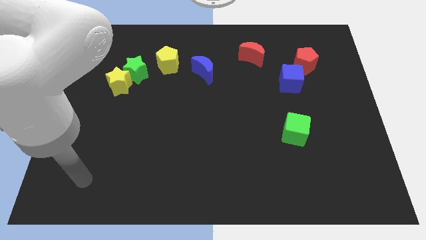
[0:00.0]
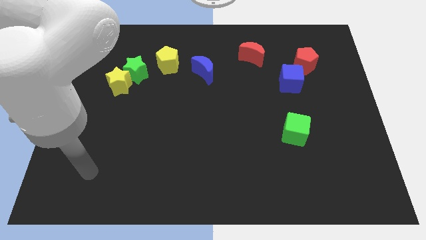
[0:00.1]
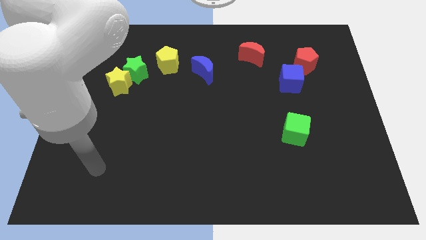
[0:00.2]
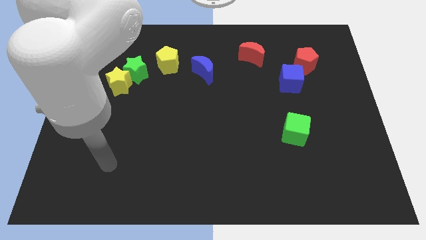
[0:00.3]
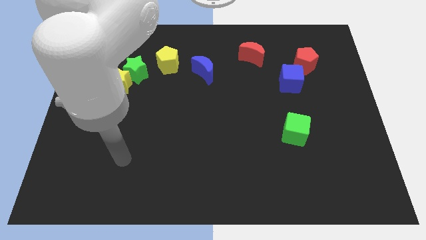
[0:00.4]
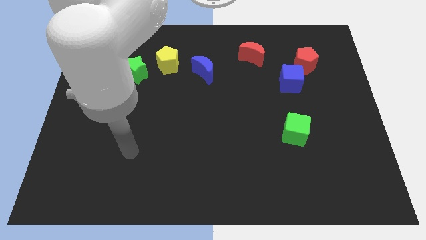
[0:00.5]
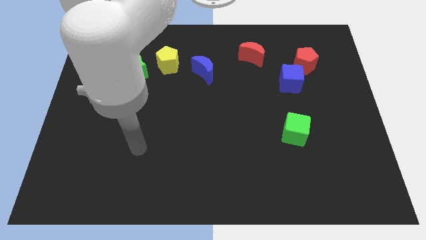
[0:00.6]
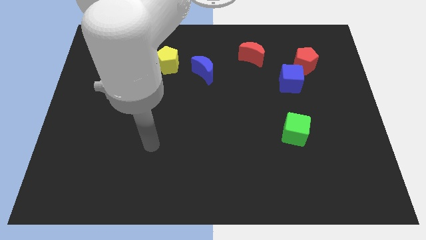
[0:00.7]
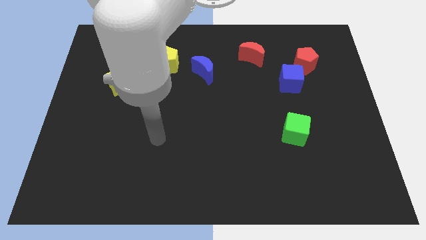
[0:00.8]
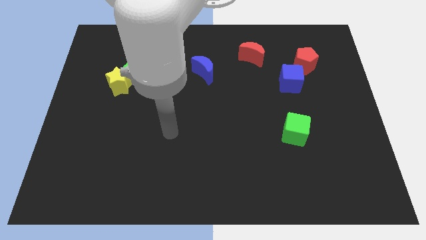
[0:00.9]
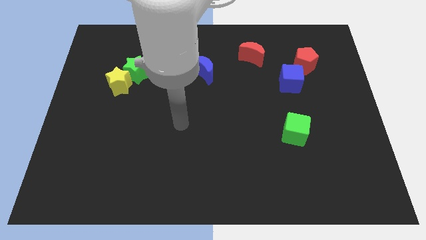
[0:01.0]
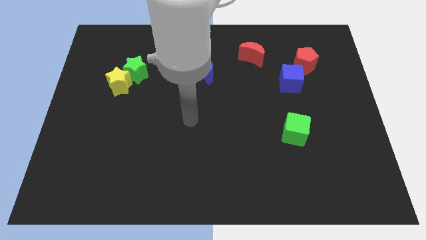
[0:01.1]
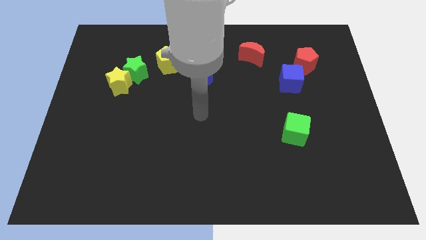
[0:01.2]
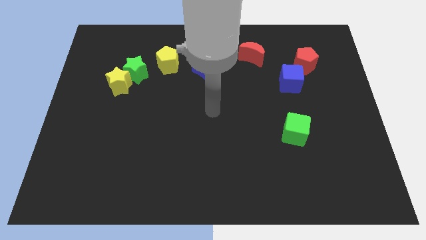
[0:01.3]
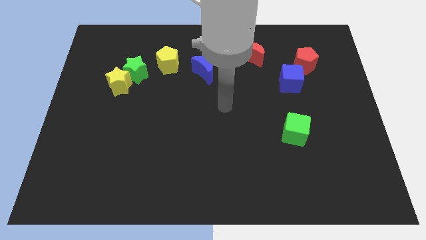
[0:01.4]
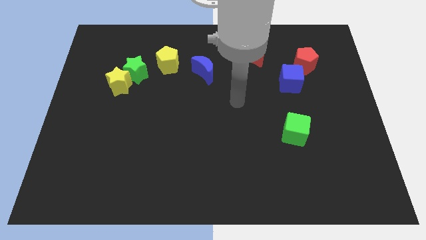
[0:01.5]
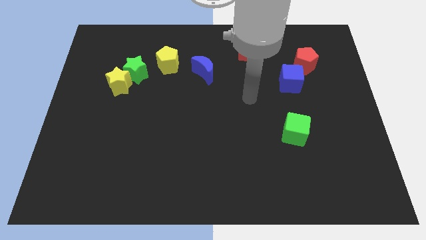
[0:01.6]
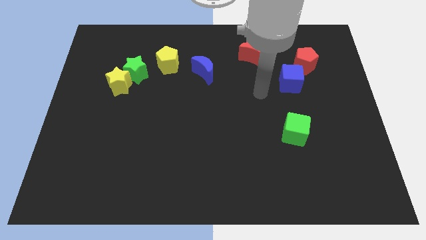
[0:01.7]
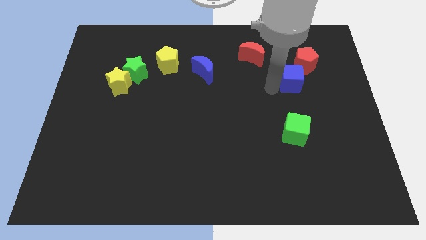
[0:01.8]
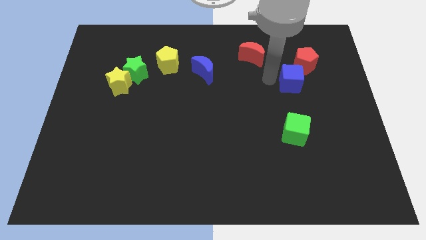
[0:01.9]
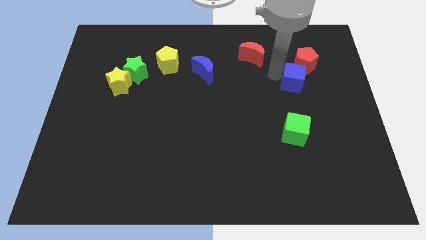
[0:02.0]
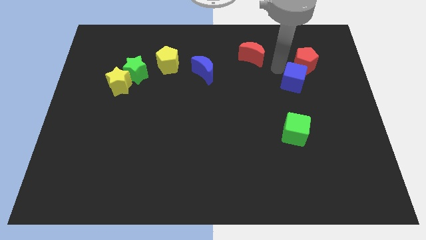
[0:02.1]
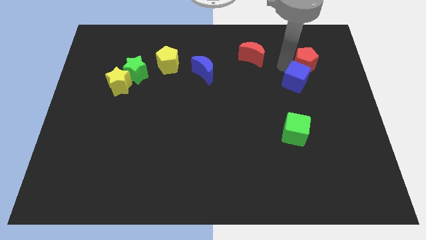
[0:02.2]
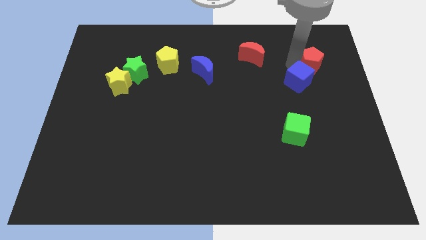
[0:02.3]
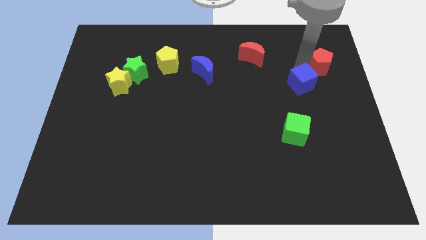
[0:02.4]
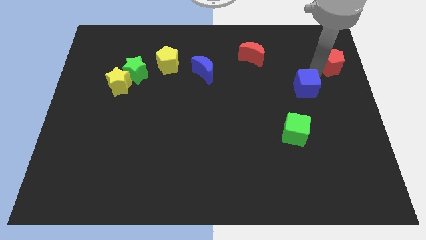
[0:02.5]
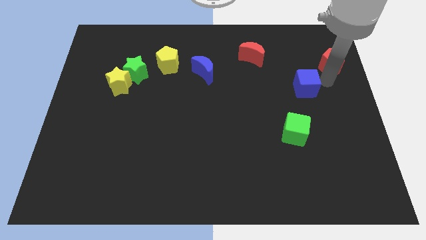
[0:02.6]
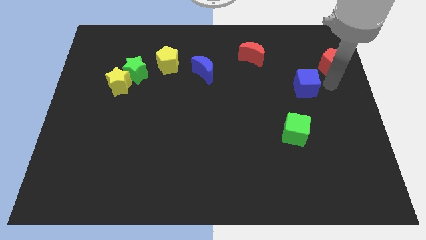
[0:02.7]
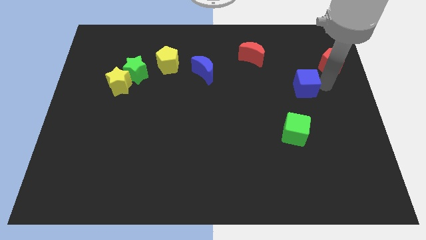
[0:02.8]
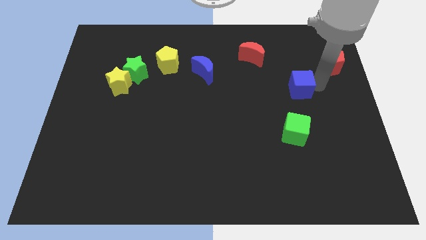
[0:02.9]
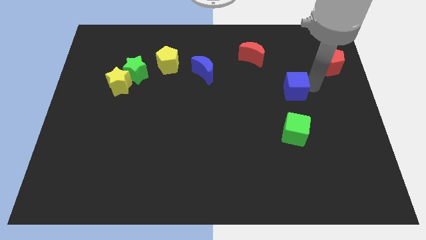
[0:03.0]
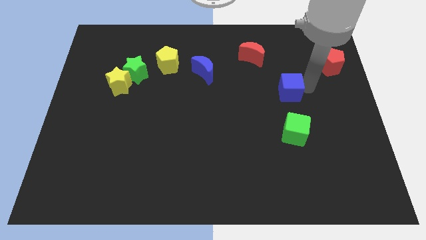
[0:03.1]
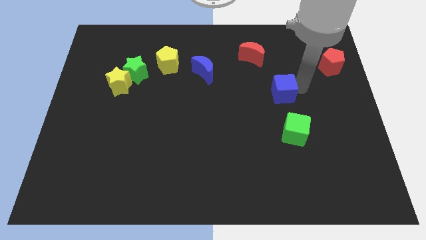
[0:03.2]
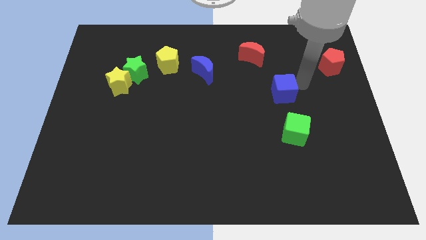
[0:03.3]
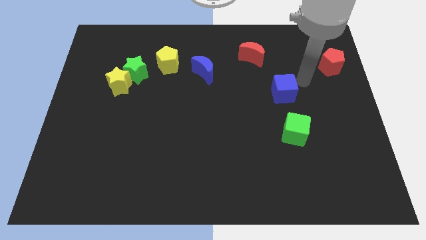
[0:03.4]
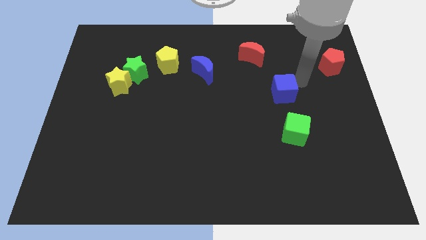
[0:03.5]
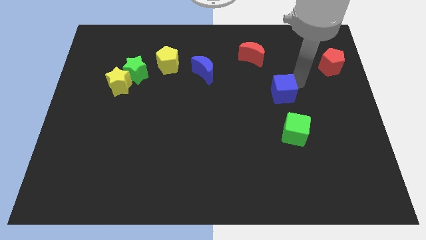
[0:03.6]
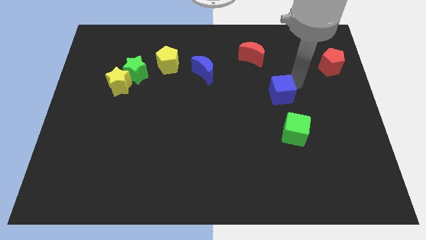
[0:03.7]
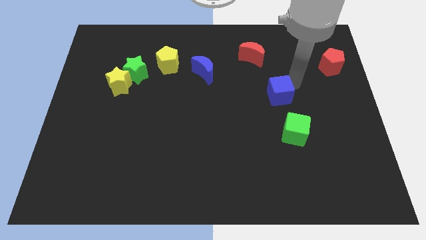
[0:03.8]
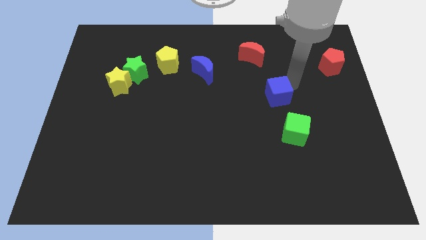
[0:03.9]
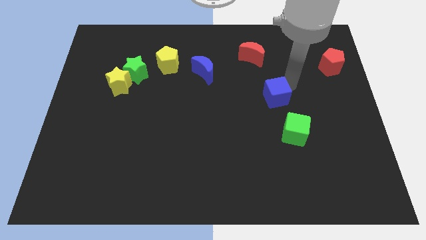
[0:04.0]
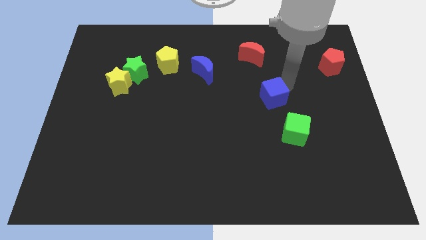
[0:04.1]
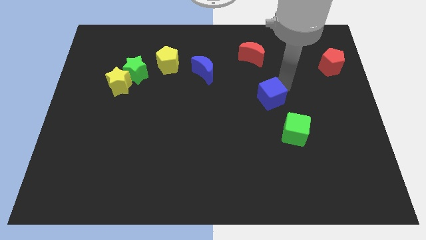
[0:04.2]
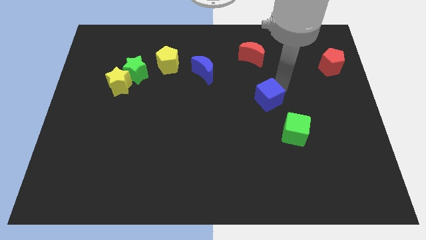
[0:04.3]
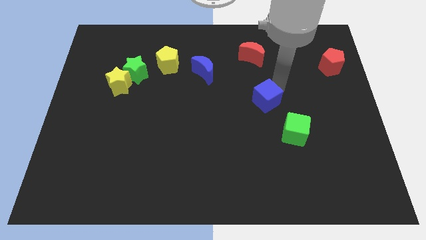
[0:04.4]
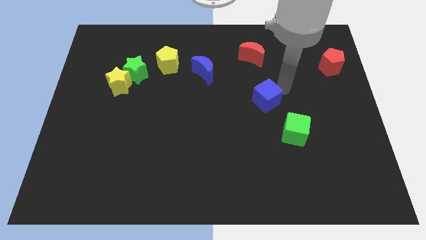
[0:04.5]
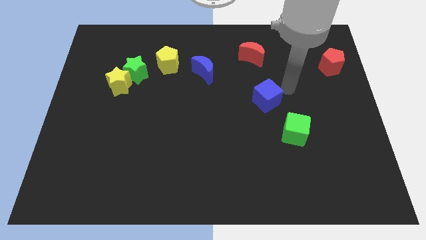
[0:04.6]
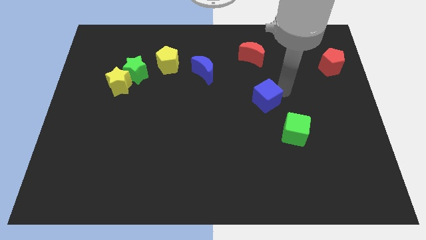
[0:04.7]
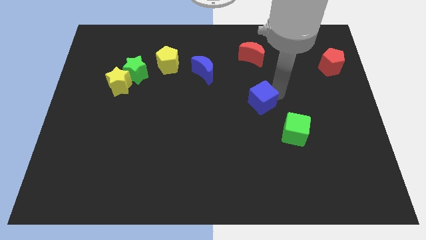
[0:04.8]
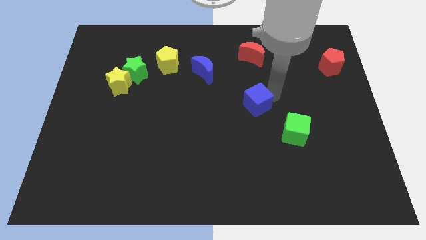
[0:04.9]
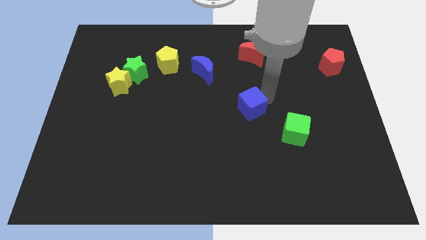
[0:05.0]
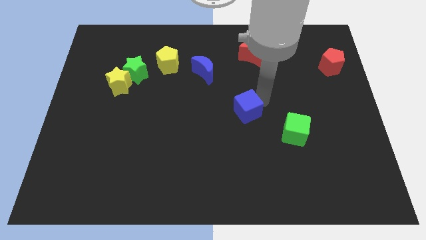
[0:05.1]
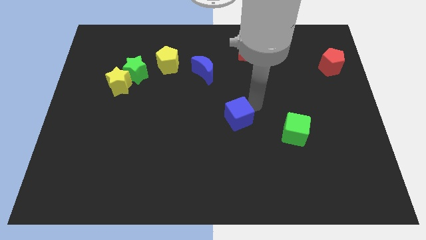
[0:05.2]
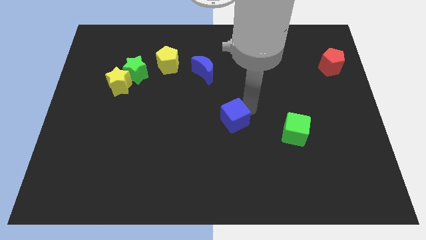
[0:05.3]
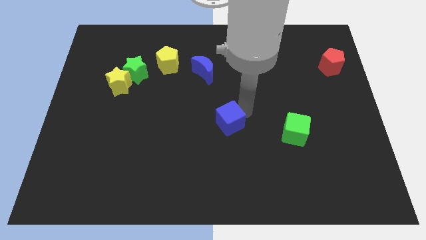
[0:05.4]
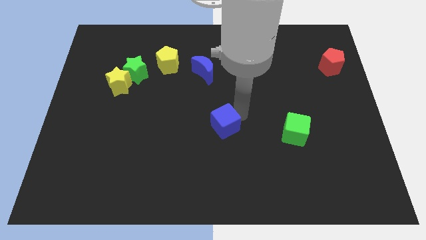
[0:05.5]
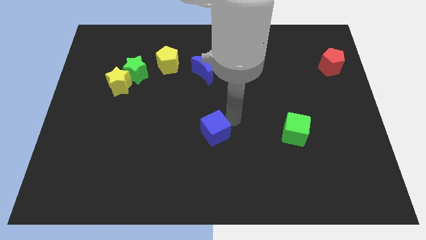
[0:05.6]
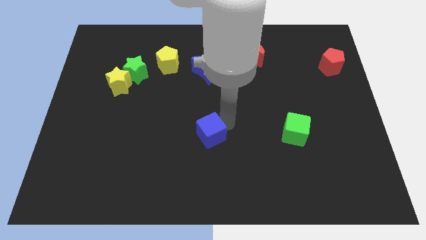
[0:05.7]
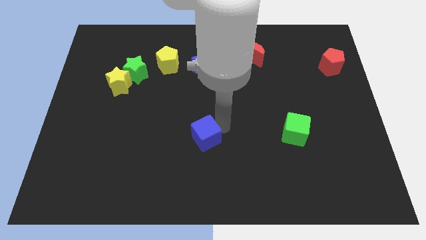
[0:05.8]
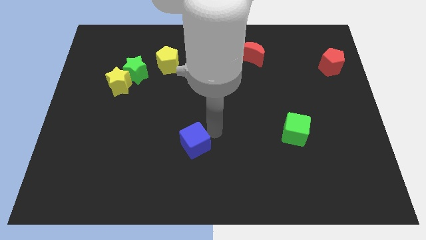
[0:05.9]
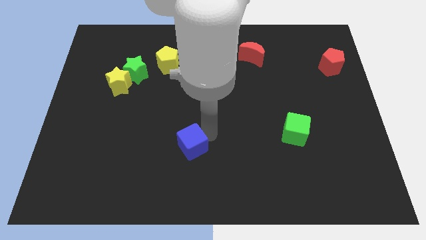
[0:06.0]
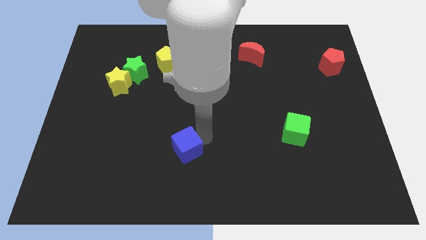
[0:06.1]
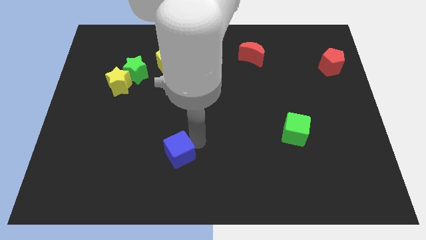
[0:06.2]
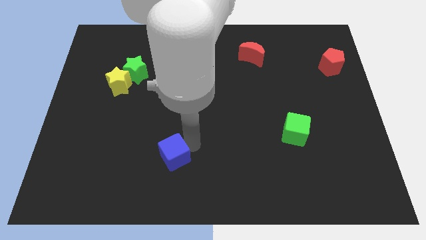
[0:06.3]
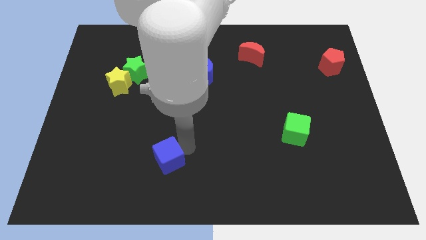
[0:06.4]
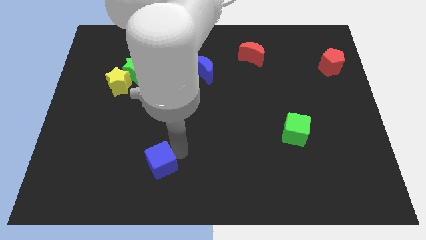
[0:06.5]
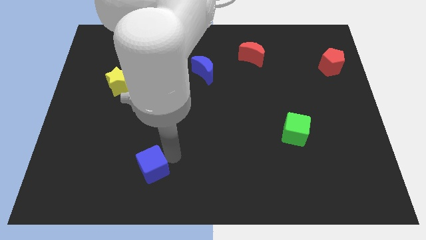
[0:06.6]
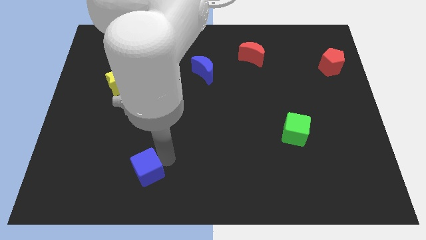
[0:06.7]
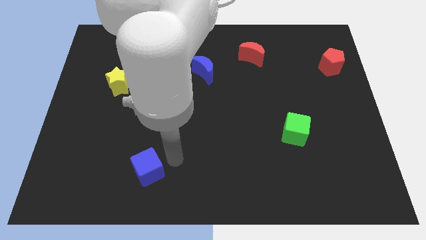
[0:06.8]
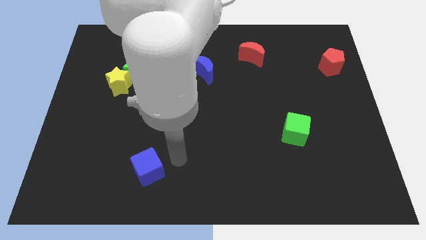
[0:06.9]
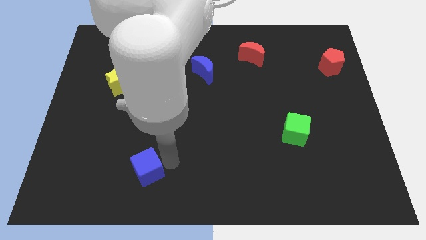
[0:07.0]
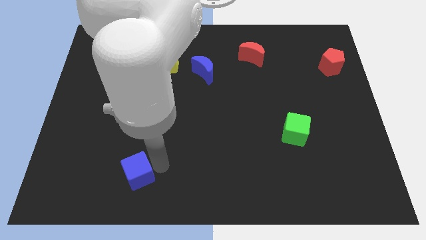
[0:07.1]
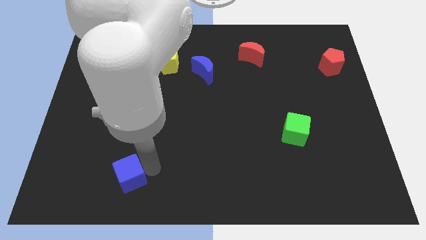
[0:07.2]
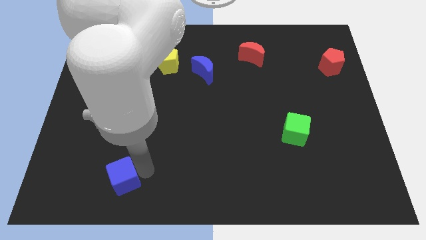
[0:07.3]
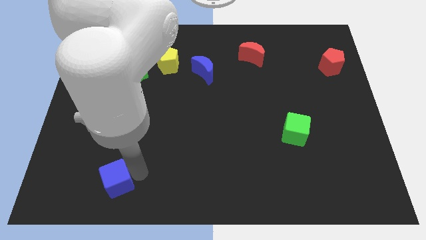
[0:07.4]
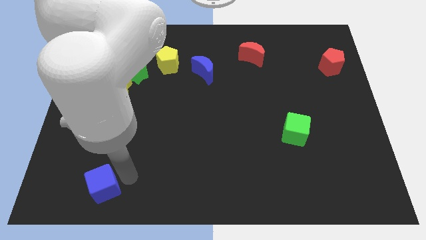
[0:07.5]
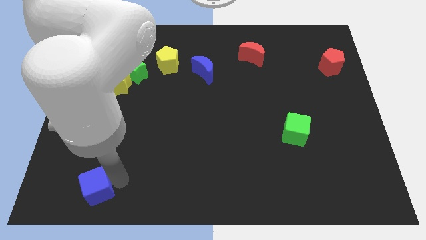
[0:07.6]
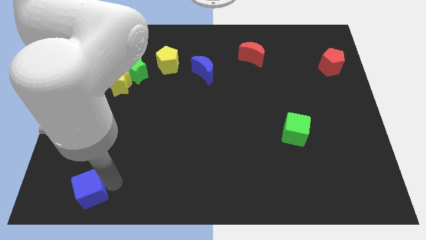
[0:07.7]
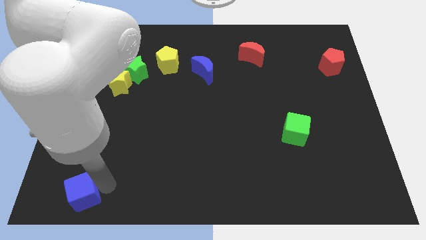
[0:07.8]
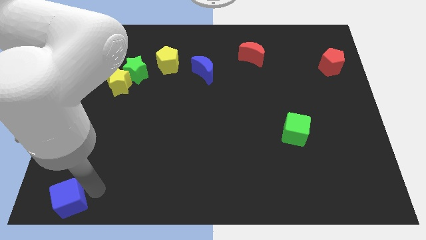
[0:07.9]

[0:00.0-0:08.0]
slide the blue cube to the bottom left of the board
